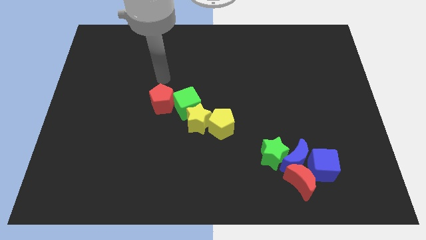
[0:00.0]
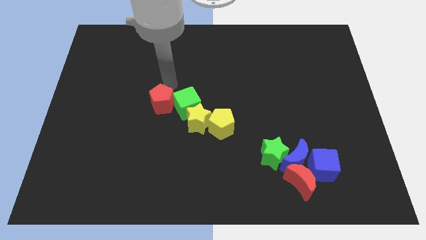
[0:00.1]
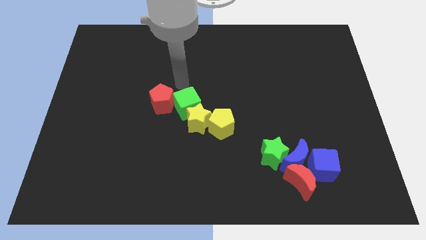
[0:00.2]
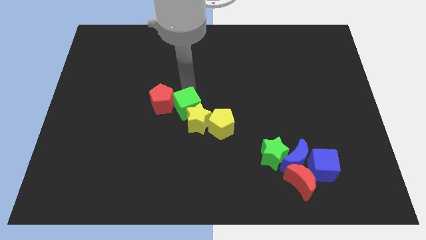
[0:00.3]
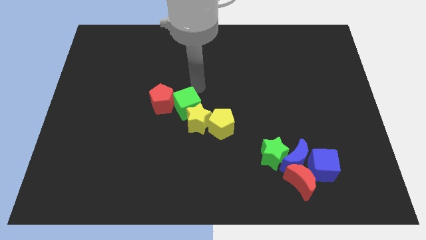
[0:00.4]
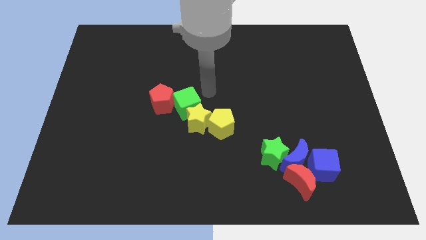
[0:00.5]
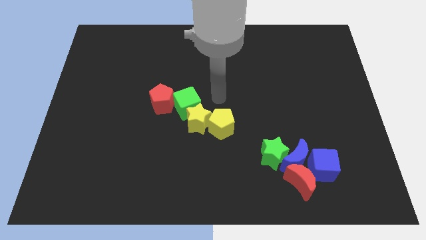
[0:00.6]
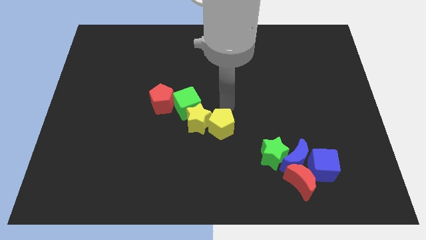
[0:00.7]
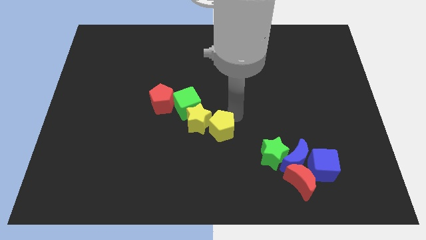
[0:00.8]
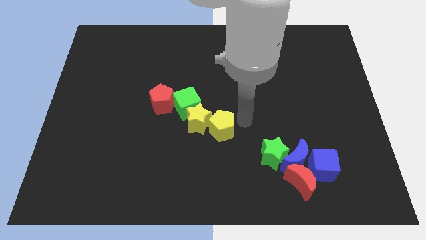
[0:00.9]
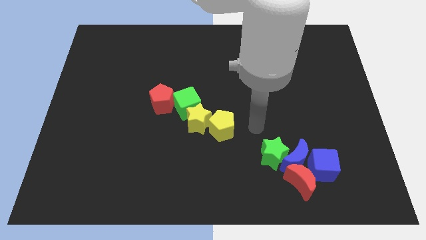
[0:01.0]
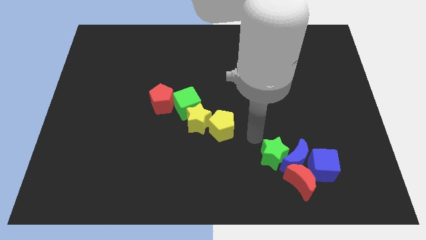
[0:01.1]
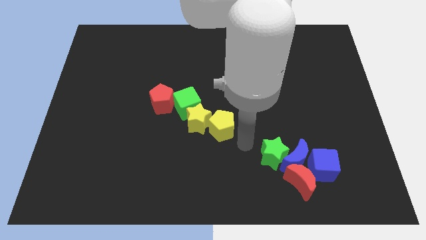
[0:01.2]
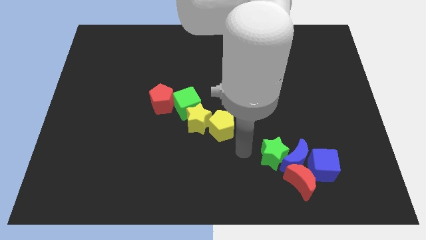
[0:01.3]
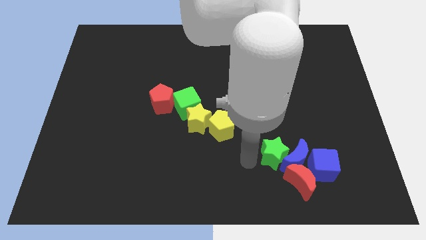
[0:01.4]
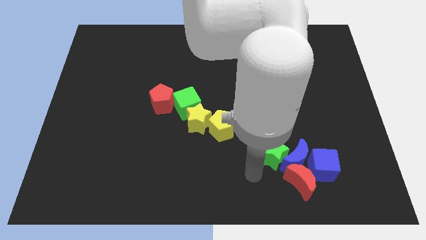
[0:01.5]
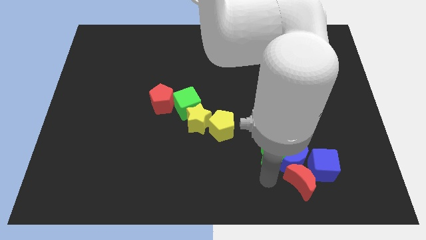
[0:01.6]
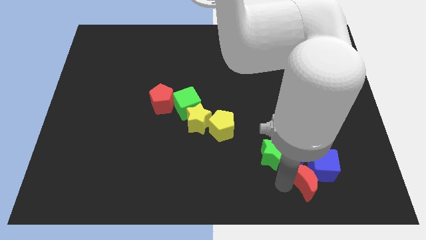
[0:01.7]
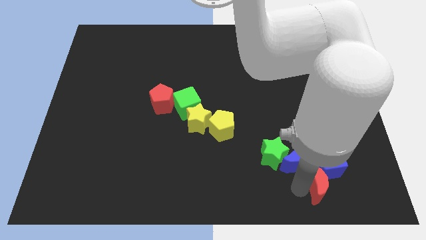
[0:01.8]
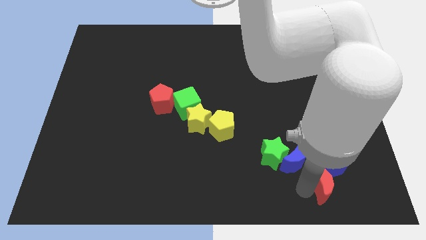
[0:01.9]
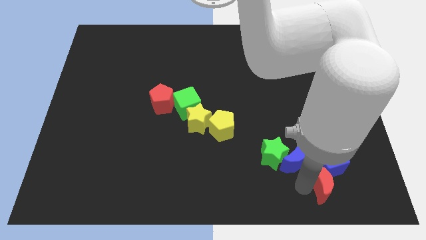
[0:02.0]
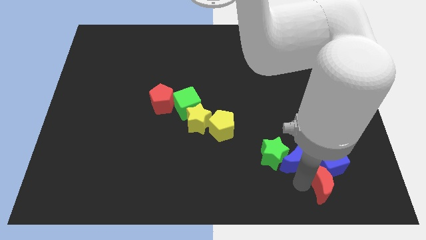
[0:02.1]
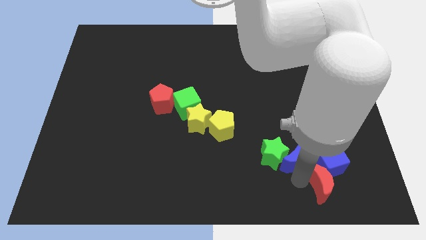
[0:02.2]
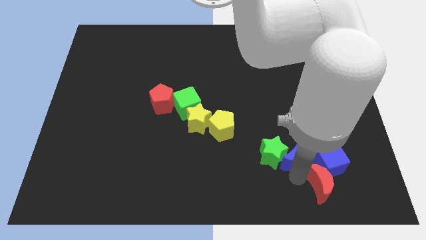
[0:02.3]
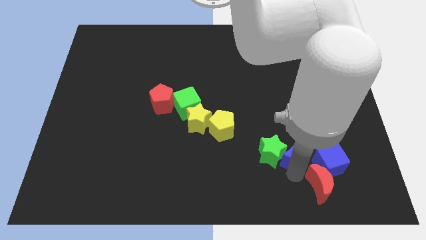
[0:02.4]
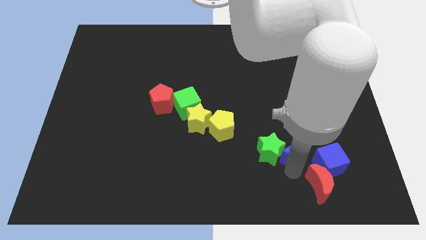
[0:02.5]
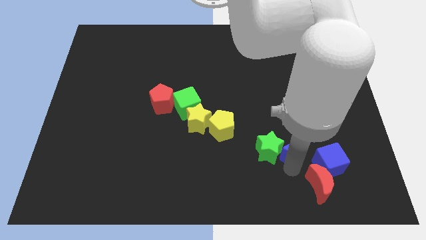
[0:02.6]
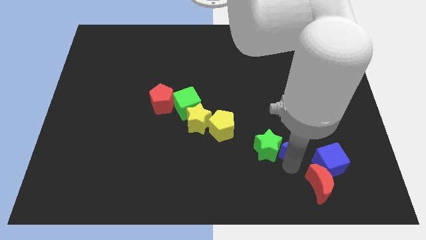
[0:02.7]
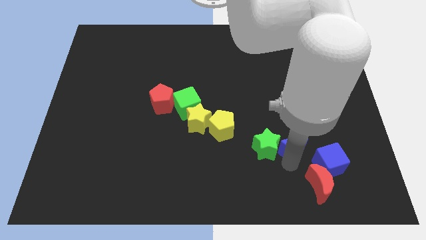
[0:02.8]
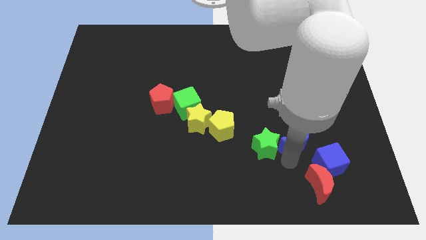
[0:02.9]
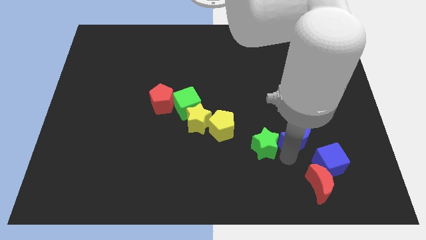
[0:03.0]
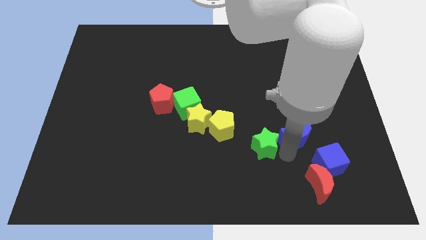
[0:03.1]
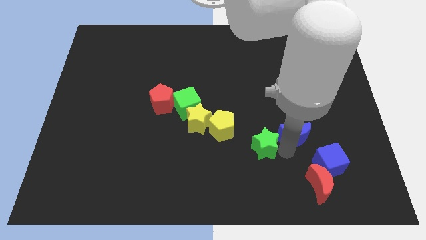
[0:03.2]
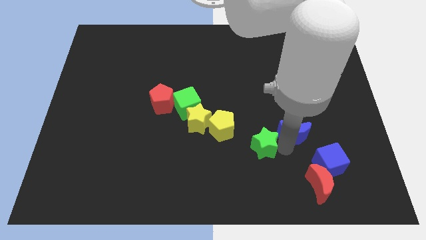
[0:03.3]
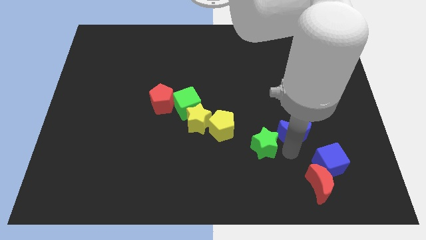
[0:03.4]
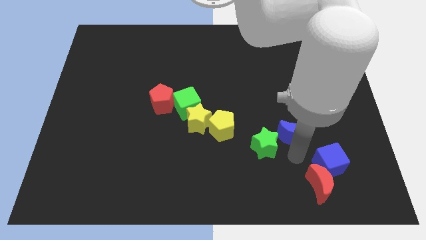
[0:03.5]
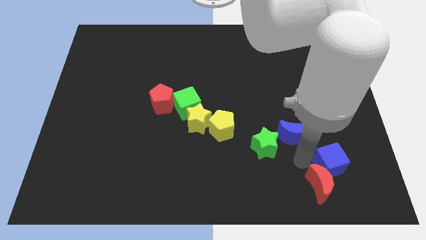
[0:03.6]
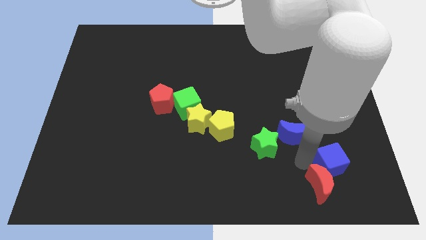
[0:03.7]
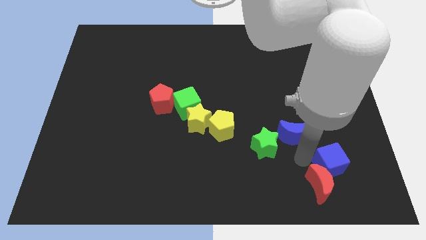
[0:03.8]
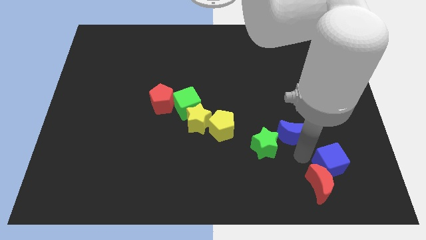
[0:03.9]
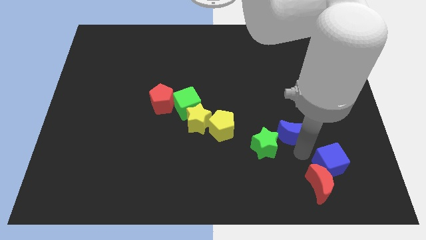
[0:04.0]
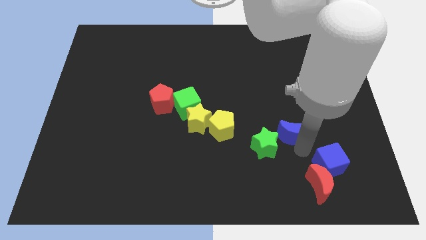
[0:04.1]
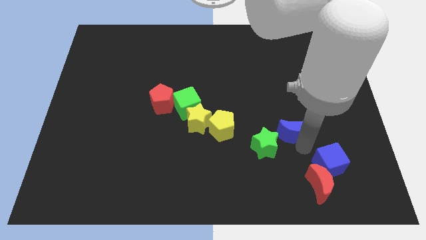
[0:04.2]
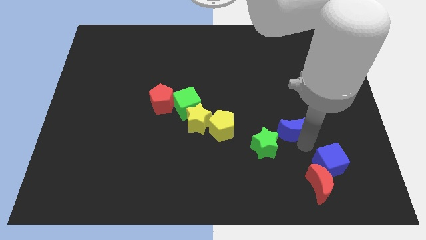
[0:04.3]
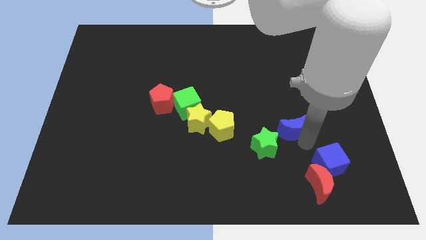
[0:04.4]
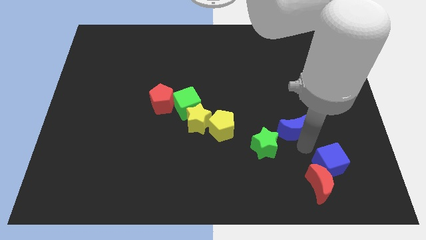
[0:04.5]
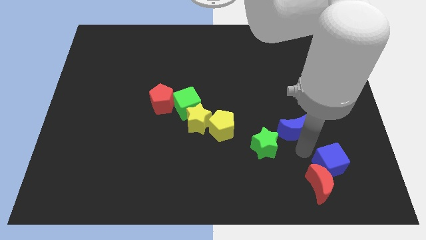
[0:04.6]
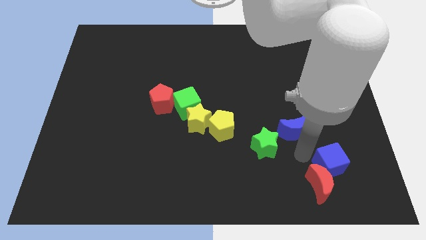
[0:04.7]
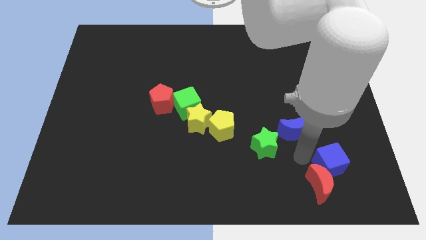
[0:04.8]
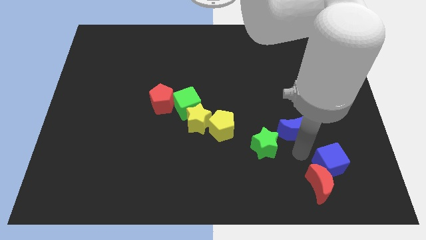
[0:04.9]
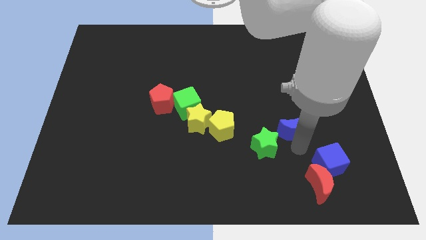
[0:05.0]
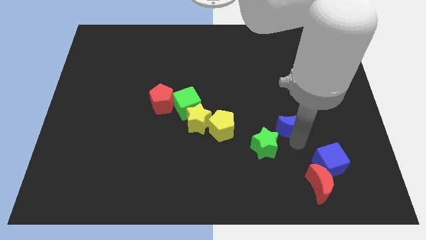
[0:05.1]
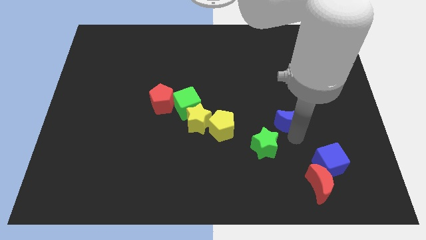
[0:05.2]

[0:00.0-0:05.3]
separate the blue moon from the red moon, green star, and blue cube

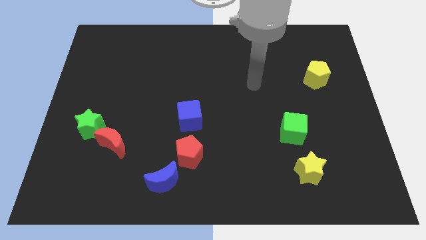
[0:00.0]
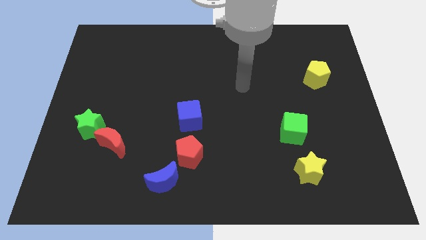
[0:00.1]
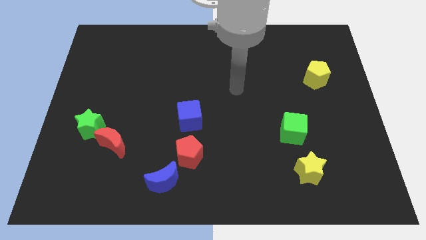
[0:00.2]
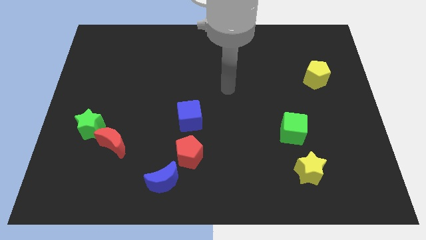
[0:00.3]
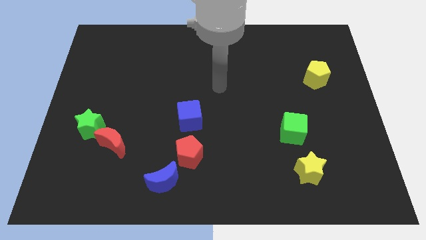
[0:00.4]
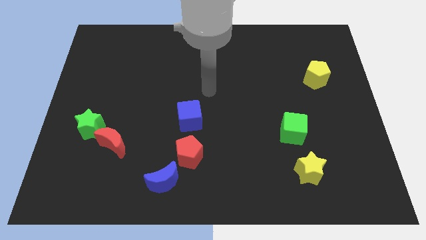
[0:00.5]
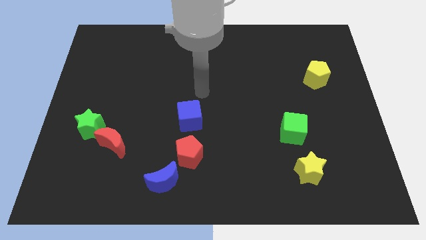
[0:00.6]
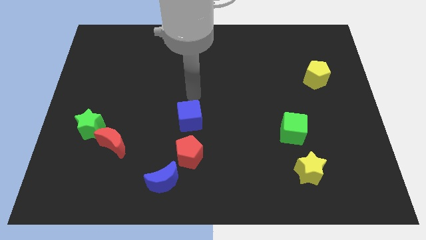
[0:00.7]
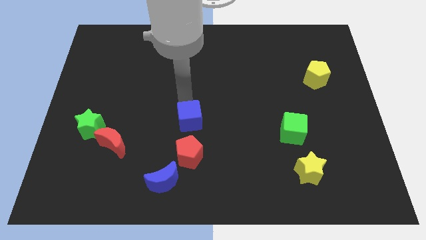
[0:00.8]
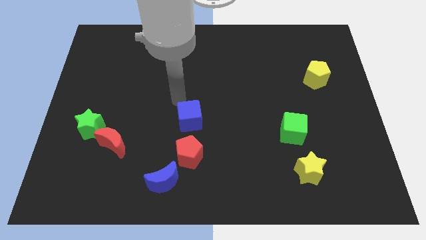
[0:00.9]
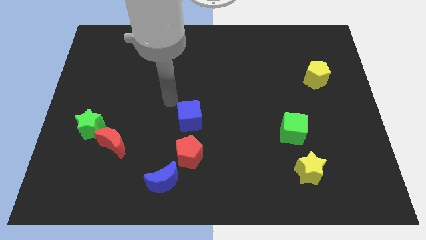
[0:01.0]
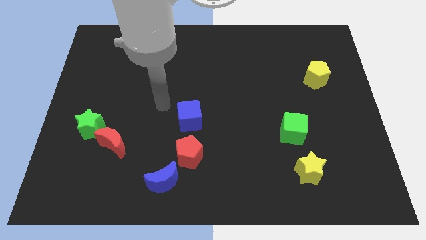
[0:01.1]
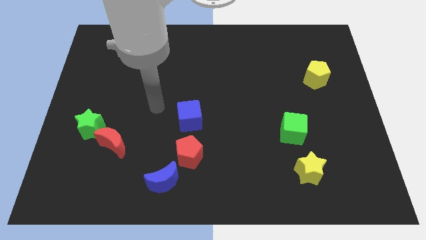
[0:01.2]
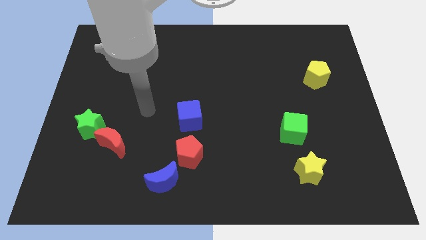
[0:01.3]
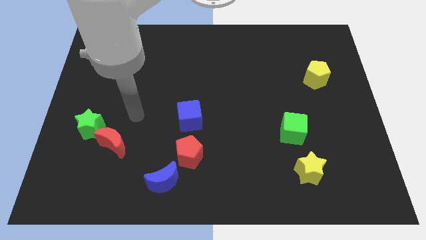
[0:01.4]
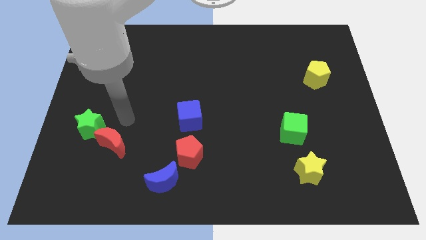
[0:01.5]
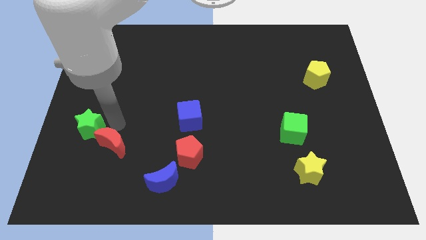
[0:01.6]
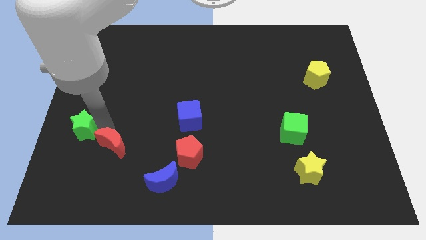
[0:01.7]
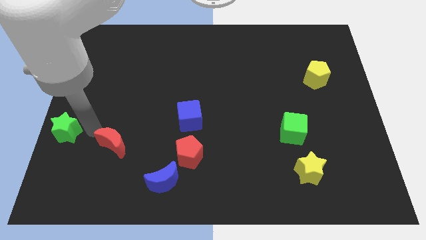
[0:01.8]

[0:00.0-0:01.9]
pull the red moon apart from the green star

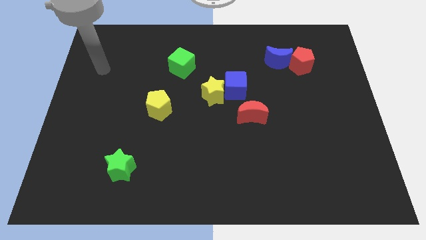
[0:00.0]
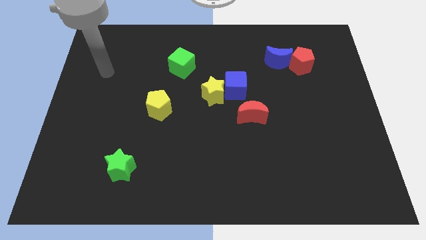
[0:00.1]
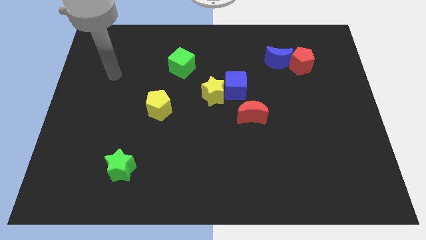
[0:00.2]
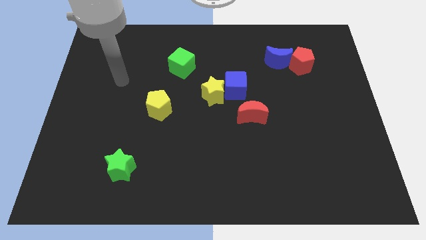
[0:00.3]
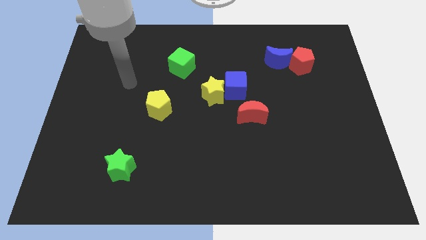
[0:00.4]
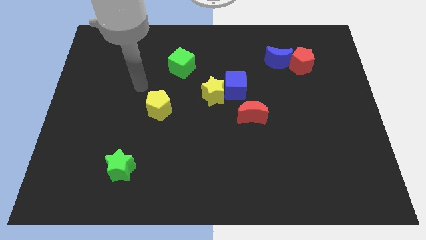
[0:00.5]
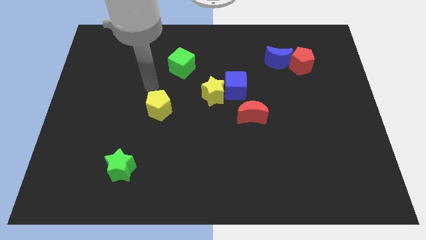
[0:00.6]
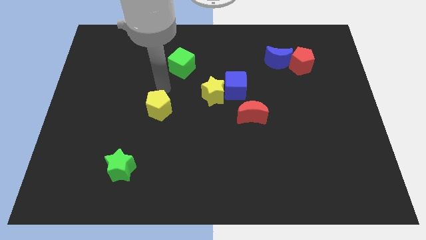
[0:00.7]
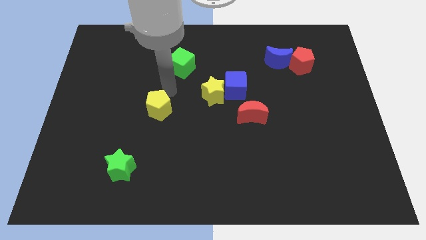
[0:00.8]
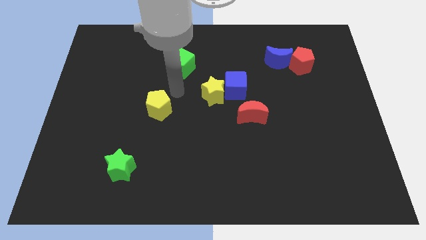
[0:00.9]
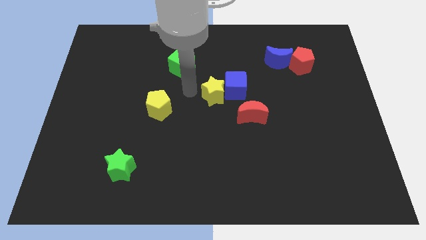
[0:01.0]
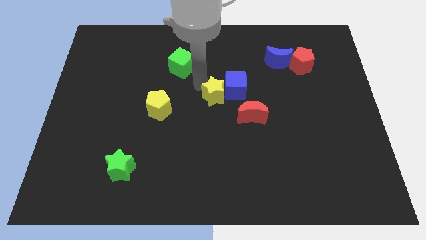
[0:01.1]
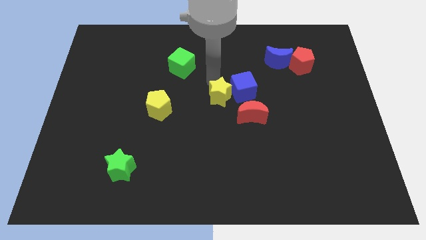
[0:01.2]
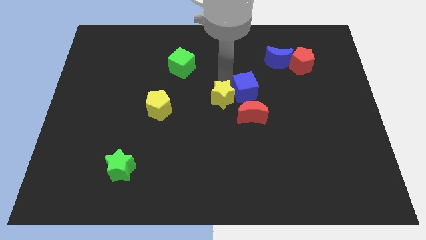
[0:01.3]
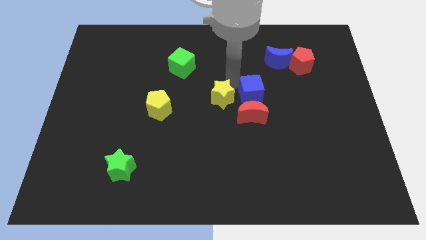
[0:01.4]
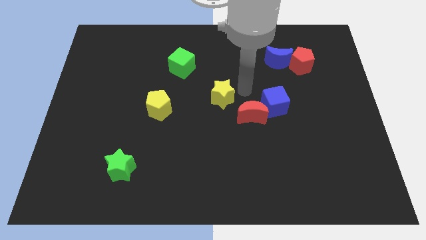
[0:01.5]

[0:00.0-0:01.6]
separate the yellow star from the blue cube

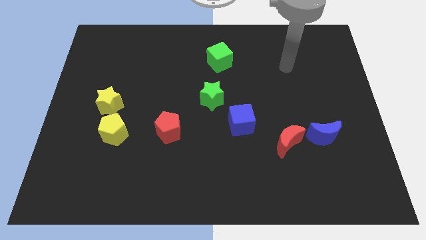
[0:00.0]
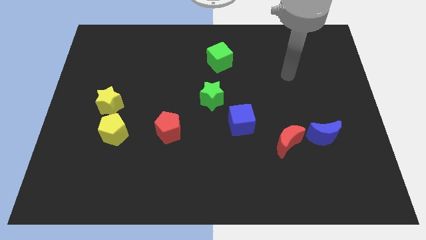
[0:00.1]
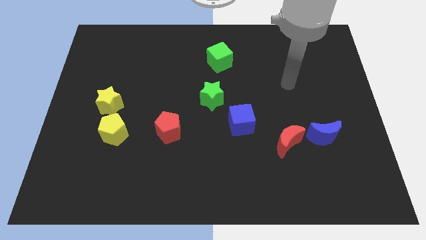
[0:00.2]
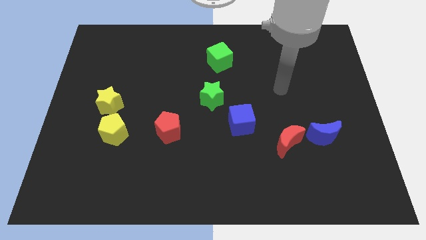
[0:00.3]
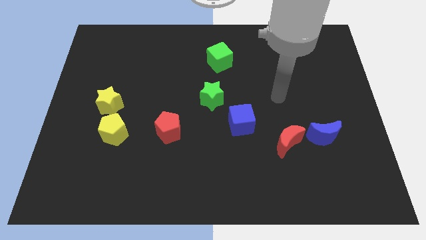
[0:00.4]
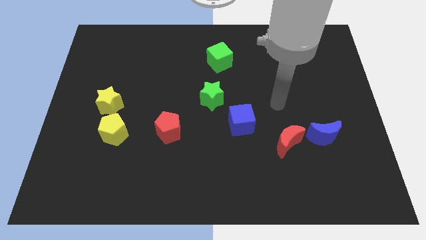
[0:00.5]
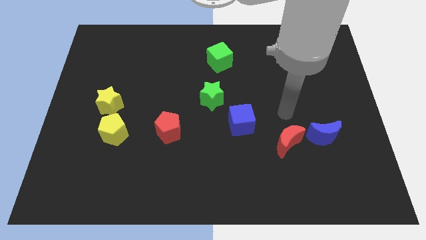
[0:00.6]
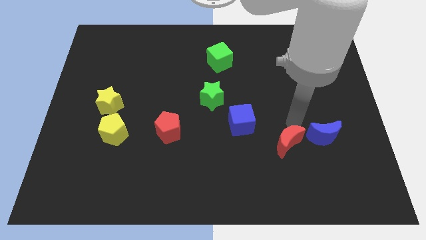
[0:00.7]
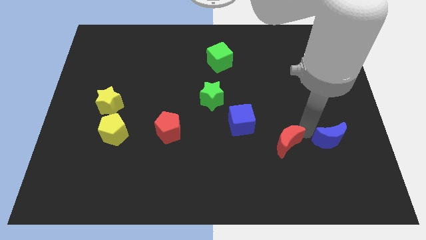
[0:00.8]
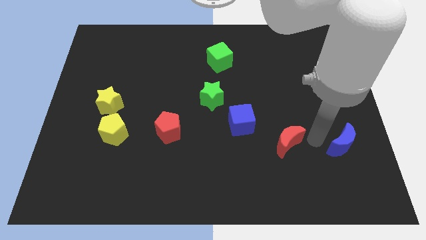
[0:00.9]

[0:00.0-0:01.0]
separate the red moon from the blue moon
